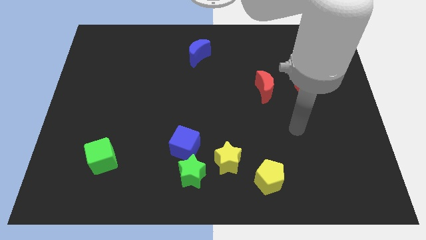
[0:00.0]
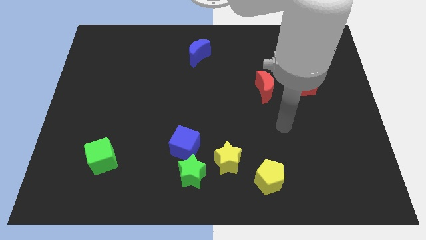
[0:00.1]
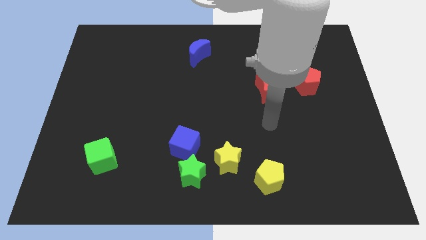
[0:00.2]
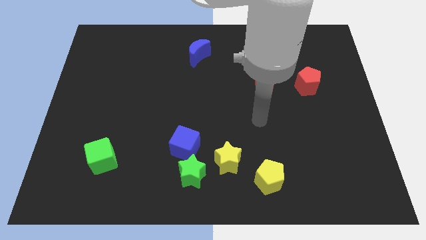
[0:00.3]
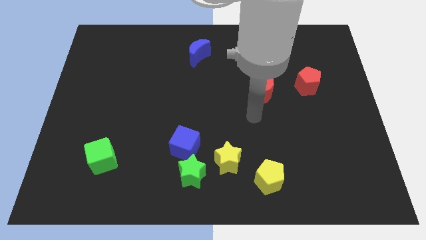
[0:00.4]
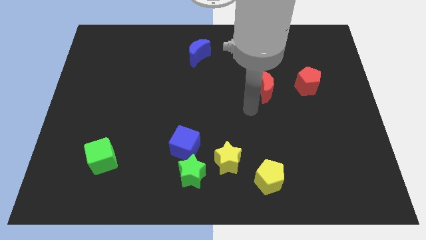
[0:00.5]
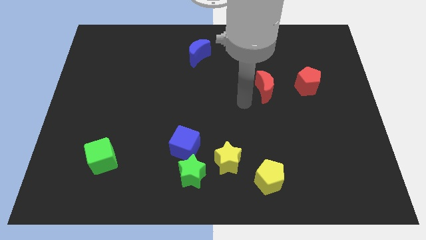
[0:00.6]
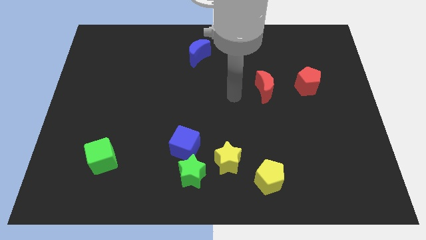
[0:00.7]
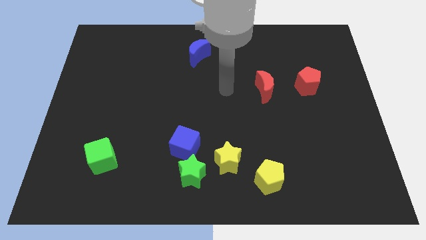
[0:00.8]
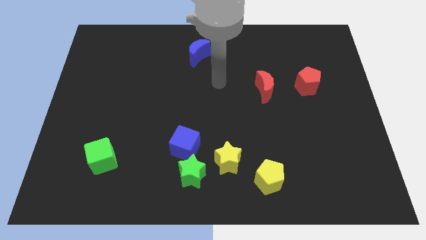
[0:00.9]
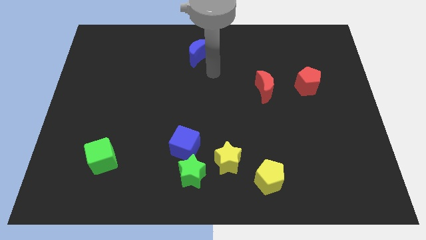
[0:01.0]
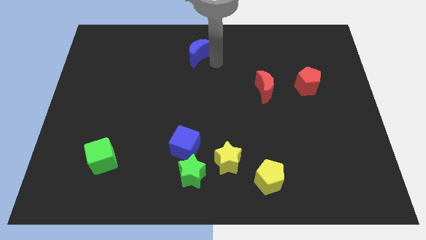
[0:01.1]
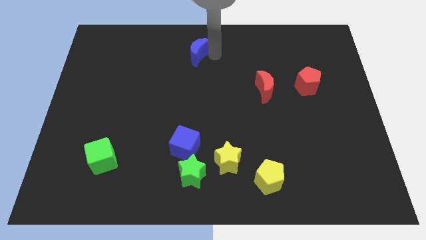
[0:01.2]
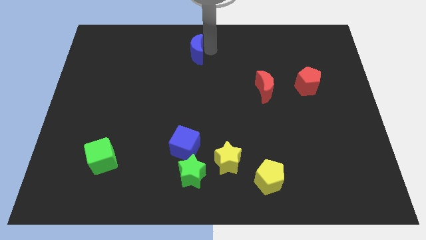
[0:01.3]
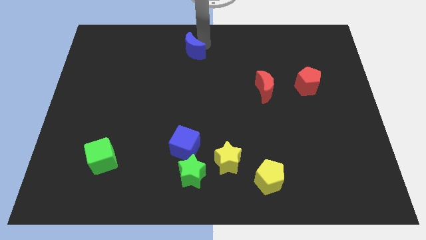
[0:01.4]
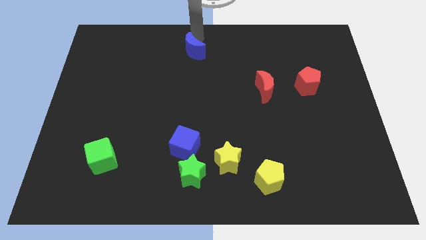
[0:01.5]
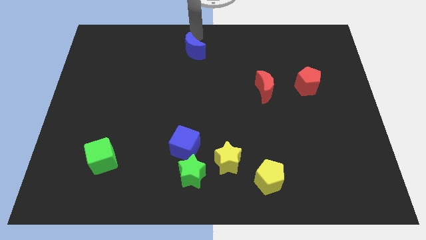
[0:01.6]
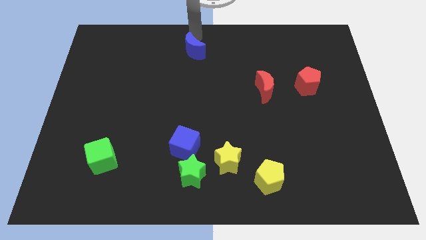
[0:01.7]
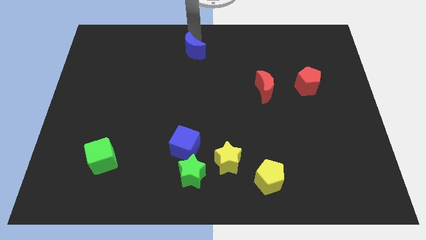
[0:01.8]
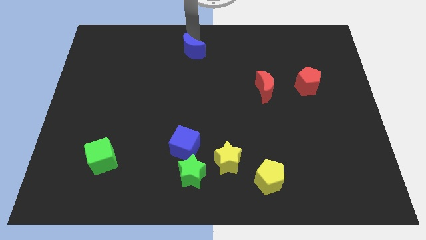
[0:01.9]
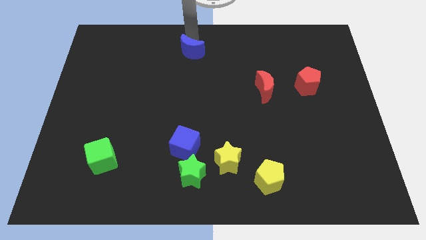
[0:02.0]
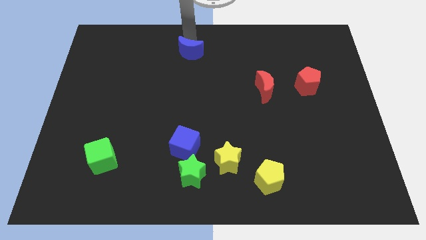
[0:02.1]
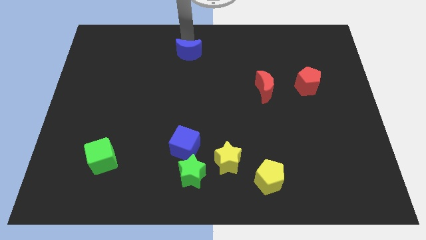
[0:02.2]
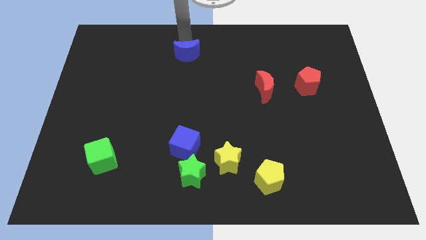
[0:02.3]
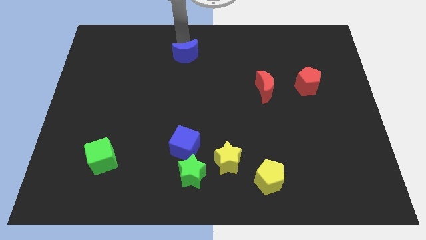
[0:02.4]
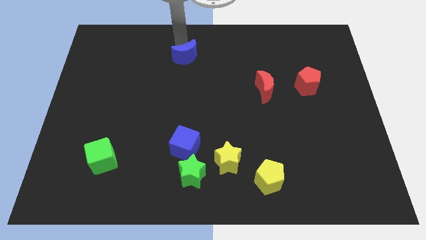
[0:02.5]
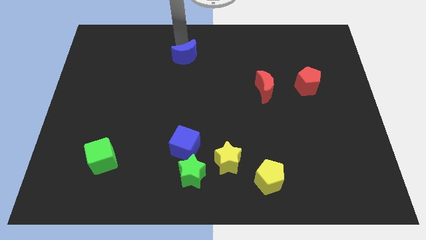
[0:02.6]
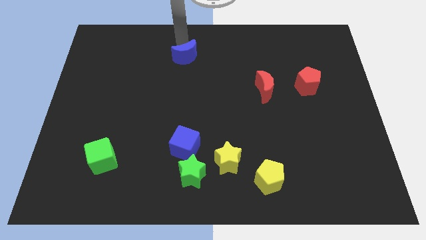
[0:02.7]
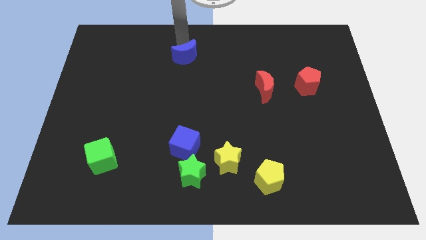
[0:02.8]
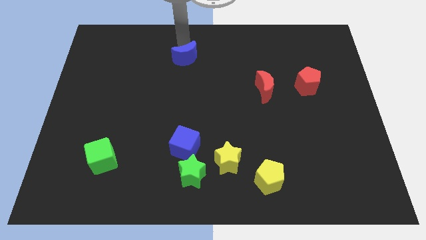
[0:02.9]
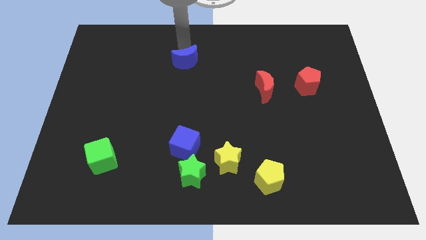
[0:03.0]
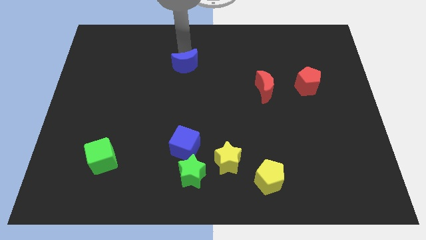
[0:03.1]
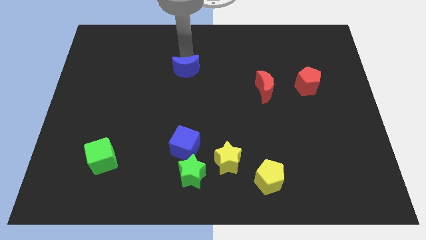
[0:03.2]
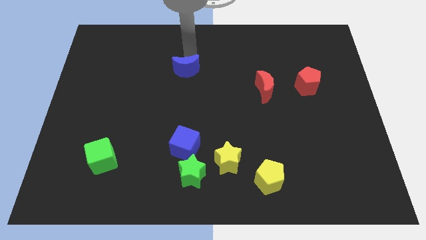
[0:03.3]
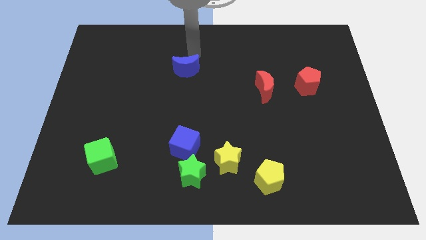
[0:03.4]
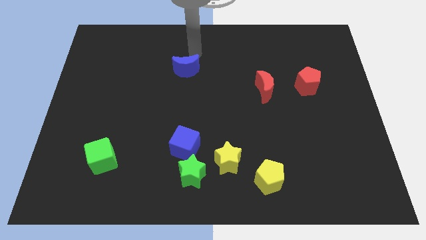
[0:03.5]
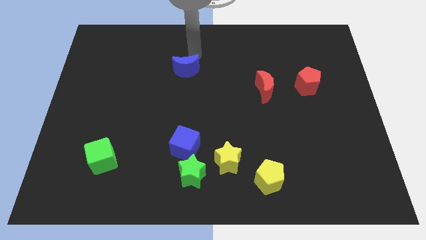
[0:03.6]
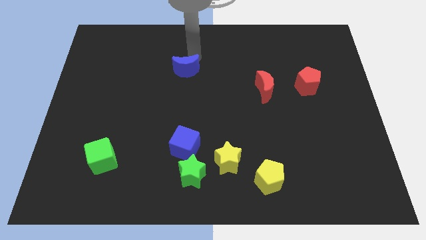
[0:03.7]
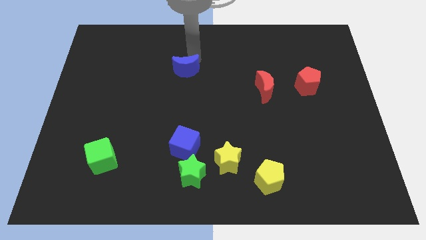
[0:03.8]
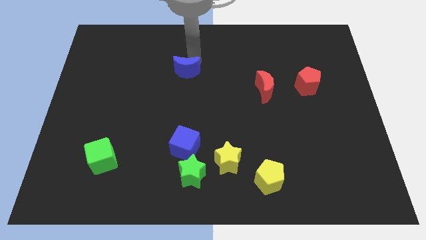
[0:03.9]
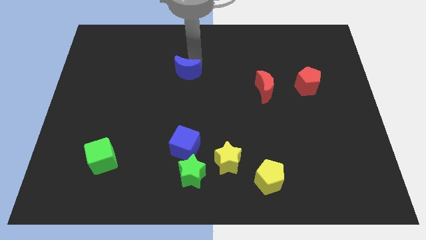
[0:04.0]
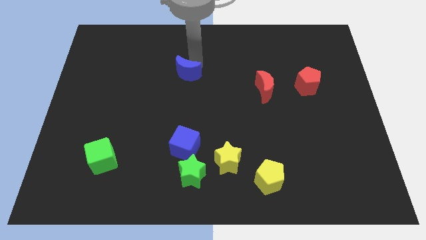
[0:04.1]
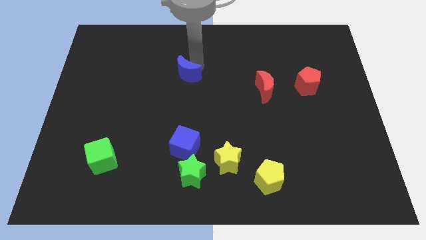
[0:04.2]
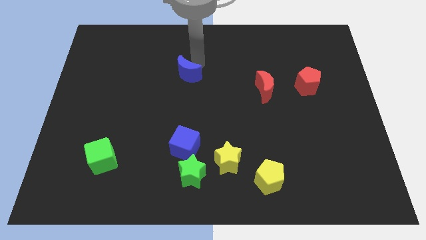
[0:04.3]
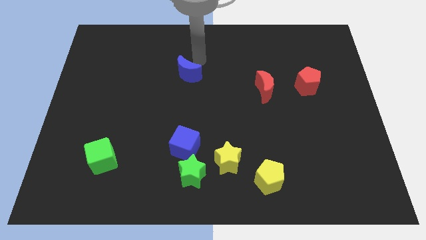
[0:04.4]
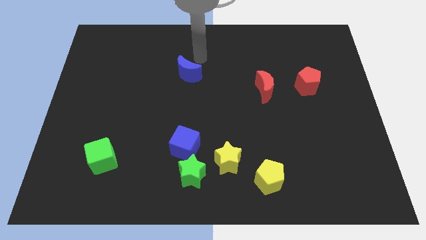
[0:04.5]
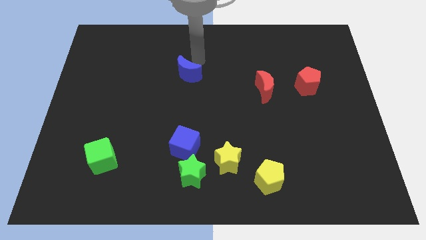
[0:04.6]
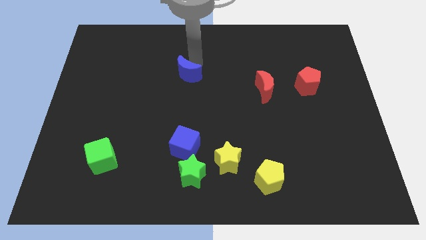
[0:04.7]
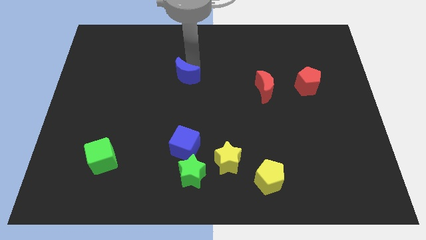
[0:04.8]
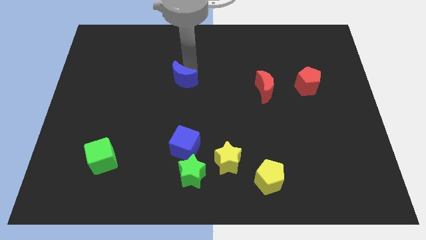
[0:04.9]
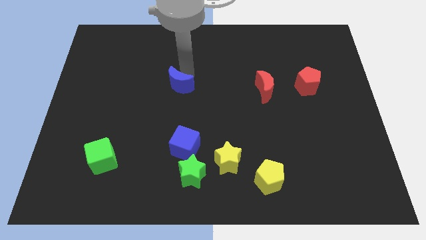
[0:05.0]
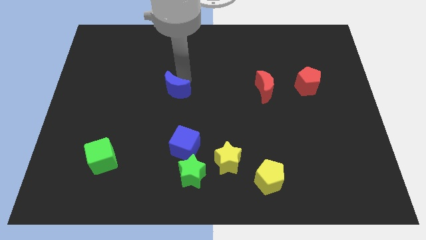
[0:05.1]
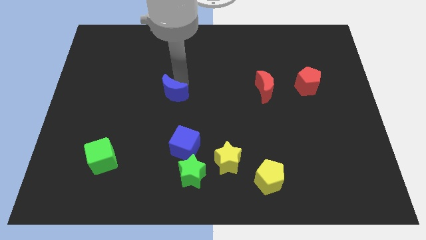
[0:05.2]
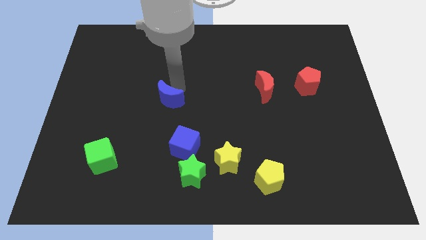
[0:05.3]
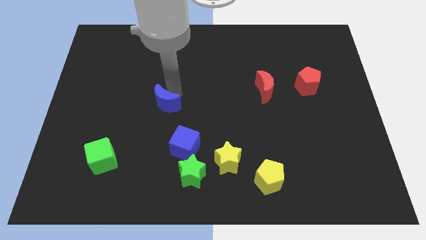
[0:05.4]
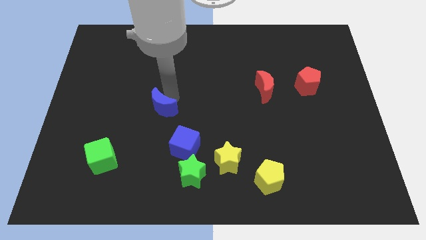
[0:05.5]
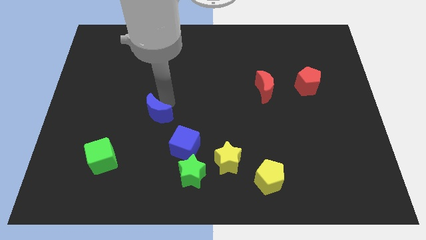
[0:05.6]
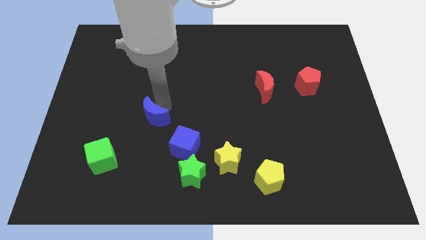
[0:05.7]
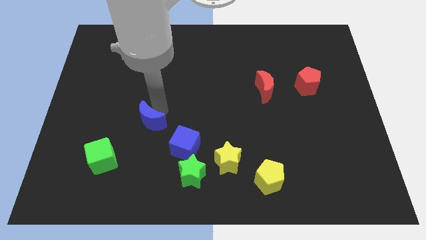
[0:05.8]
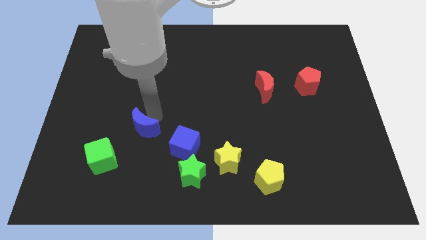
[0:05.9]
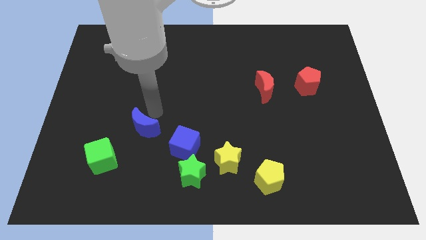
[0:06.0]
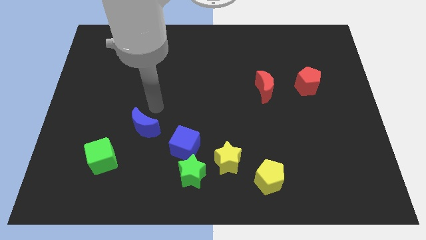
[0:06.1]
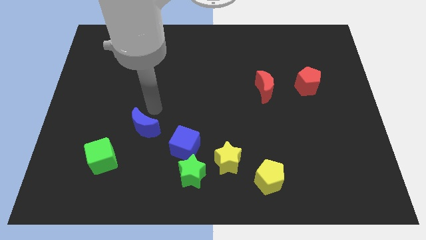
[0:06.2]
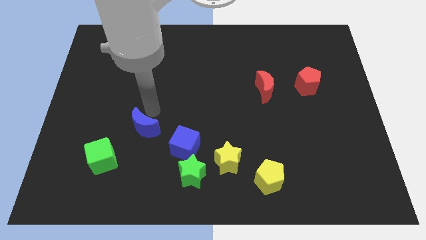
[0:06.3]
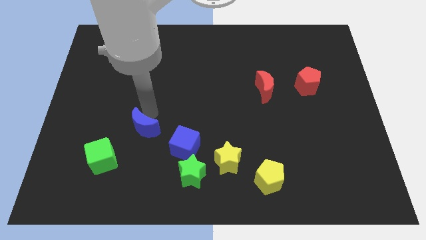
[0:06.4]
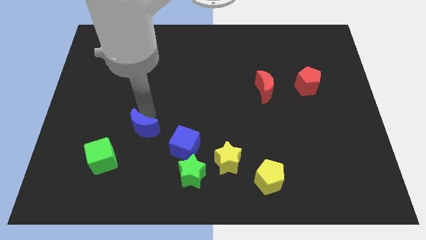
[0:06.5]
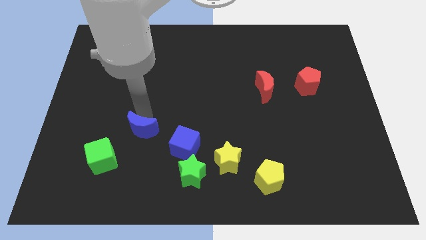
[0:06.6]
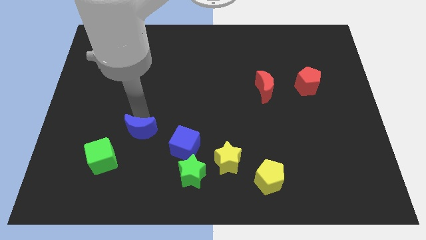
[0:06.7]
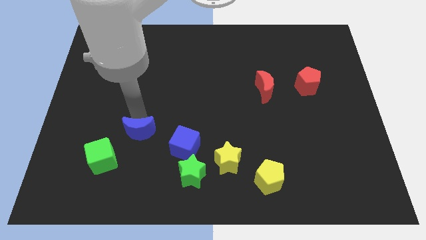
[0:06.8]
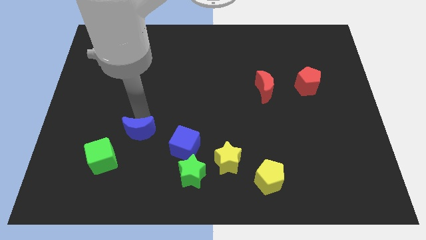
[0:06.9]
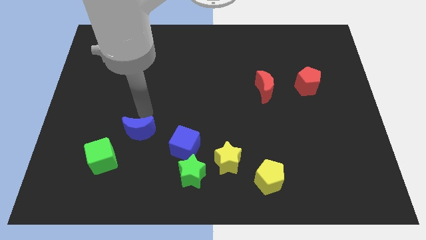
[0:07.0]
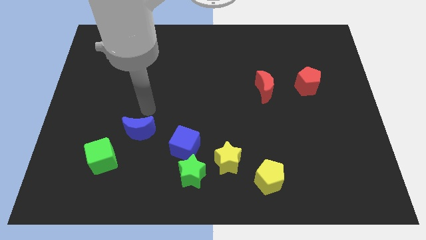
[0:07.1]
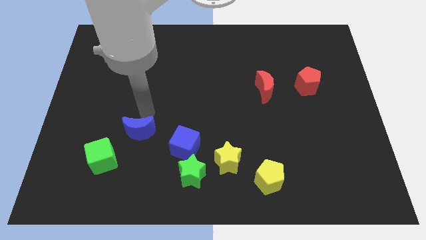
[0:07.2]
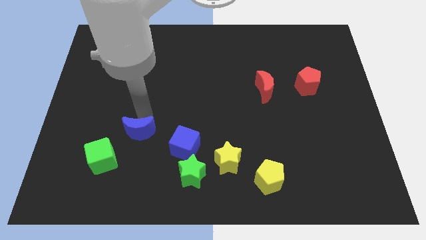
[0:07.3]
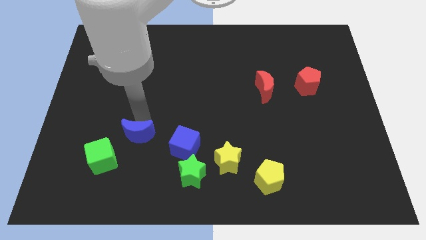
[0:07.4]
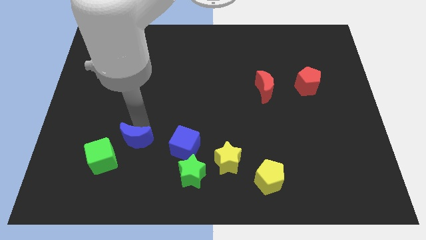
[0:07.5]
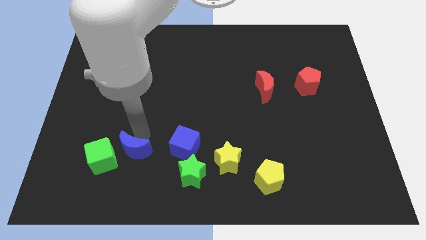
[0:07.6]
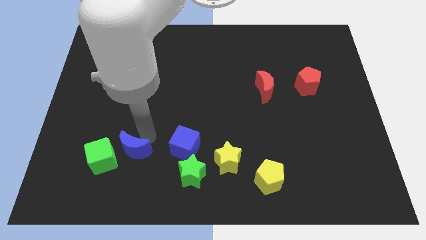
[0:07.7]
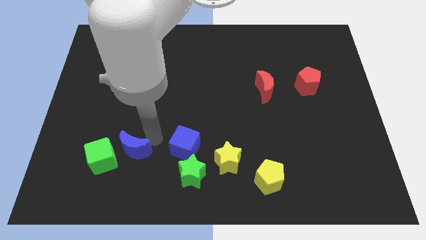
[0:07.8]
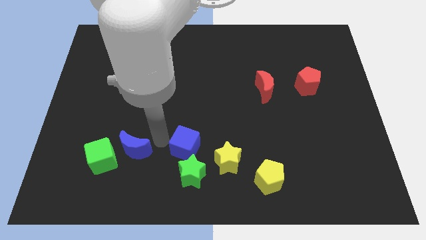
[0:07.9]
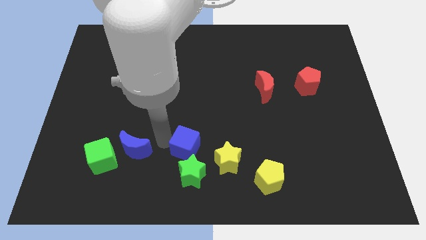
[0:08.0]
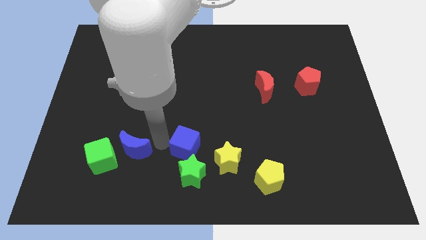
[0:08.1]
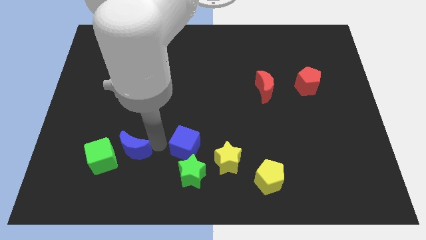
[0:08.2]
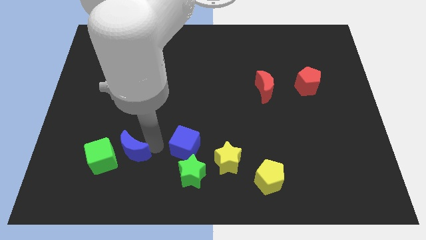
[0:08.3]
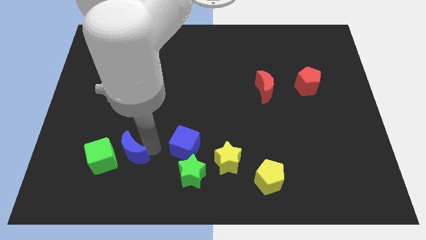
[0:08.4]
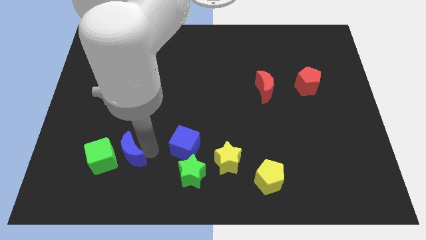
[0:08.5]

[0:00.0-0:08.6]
move the blue moon towards the green cube
